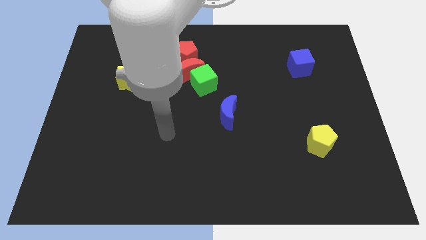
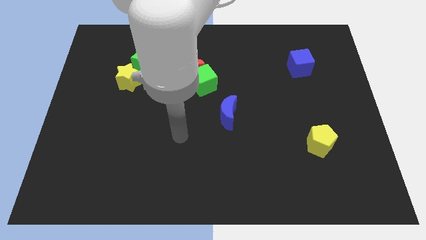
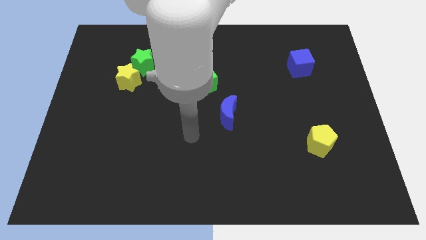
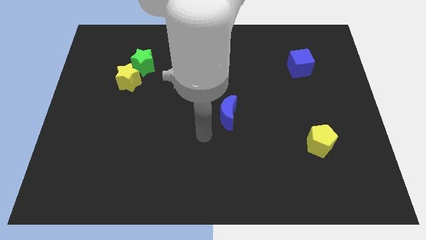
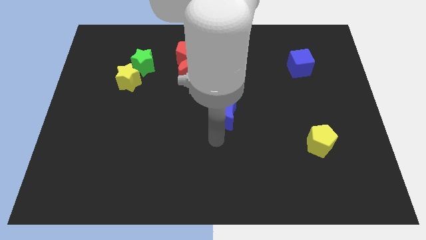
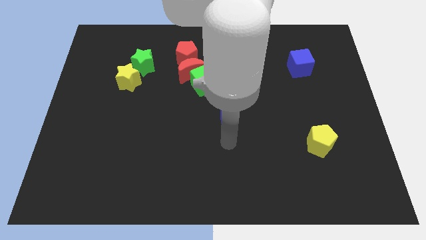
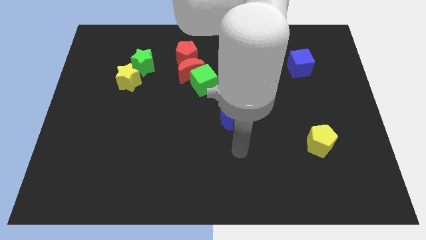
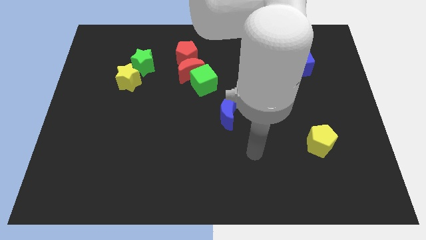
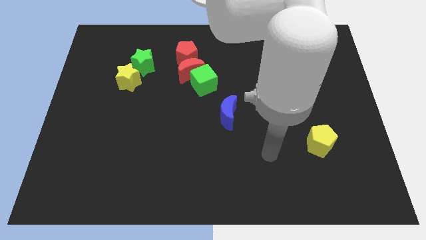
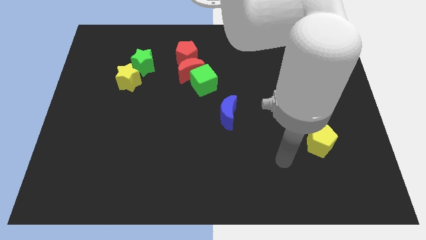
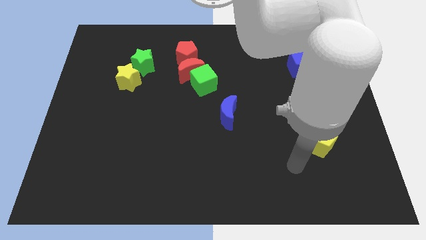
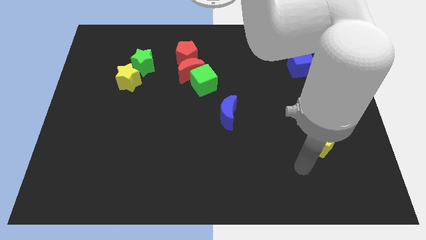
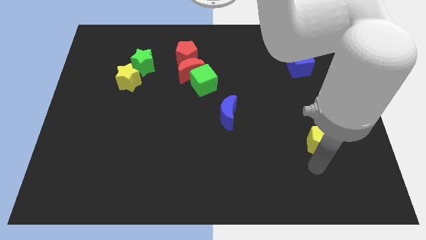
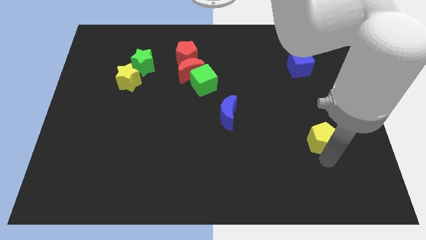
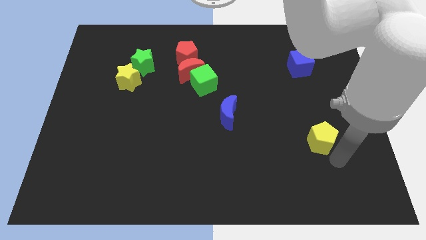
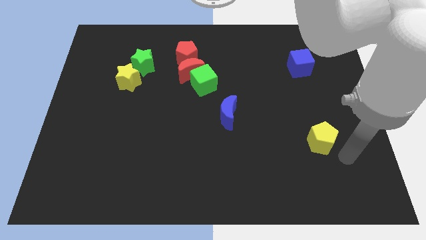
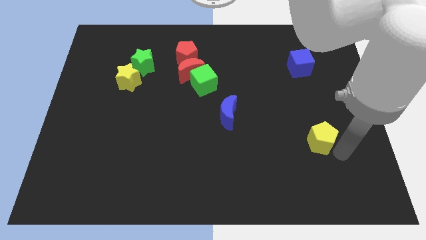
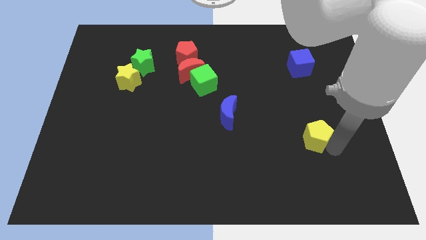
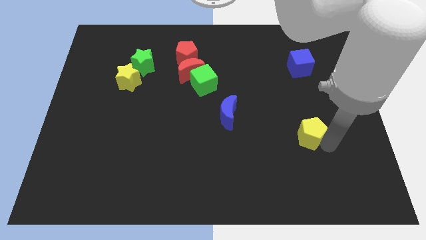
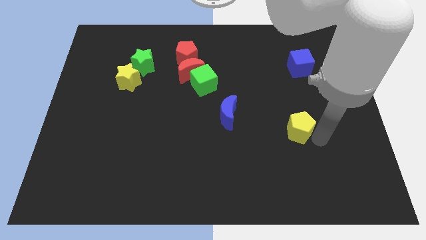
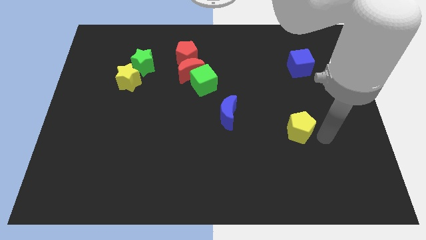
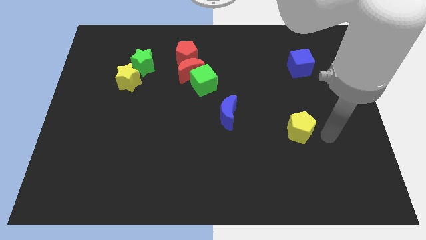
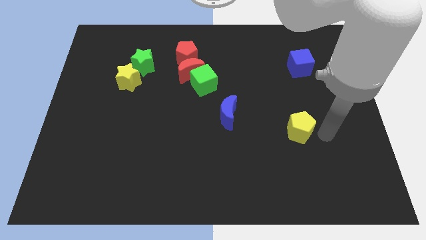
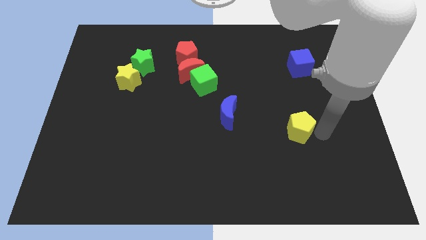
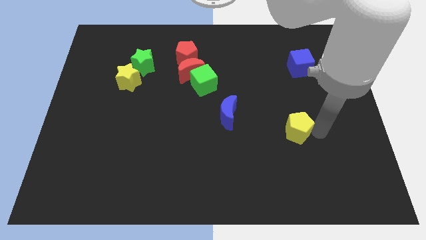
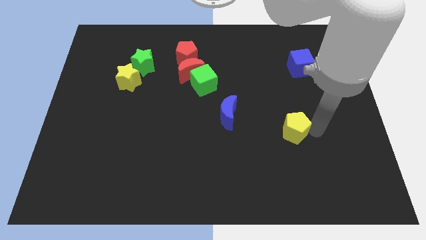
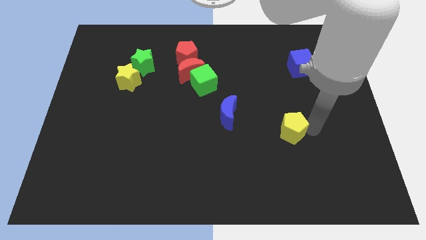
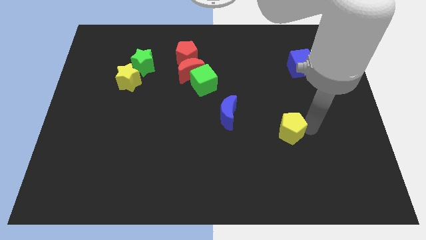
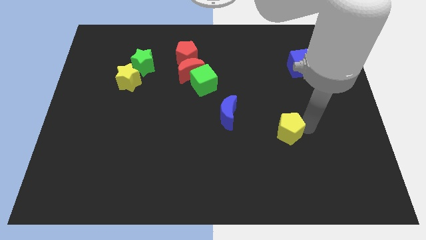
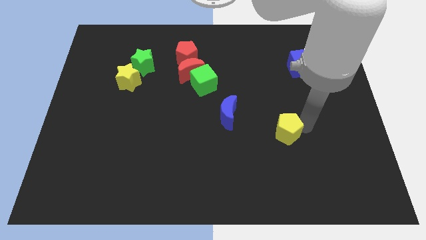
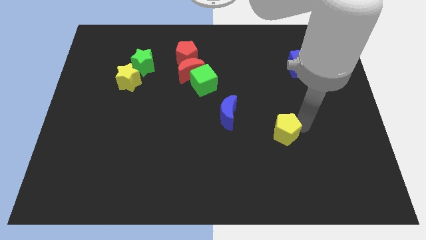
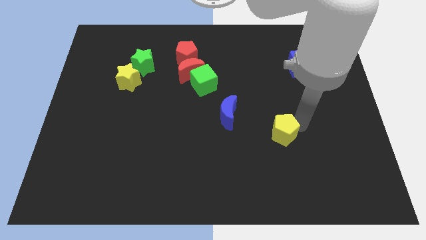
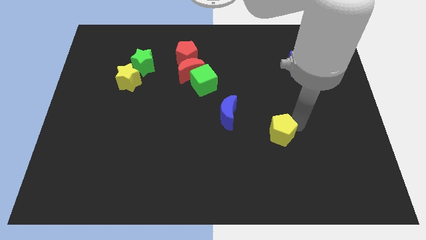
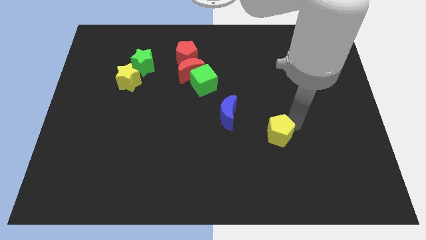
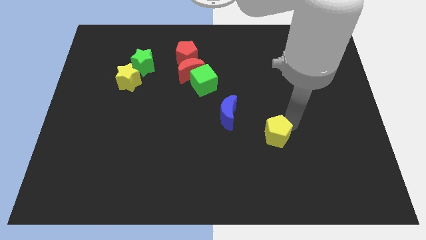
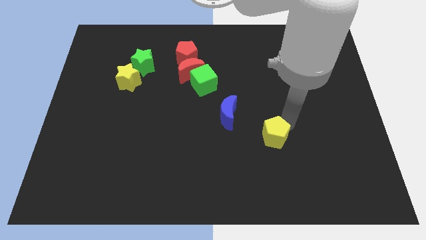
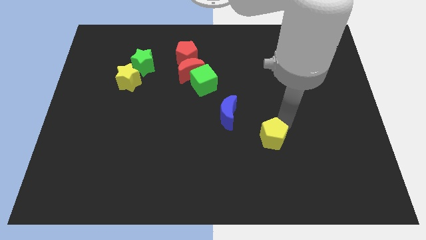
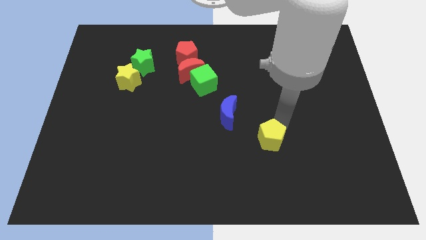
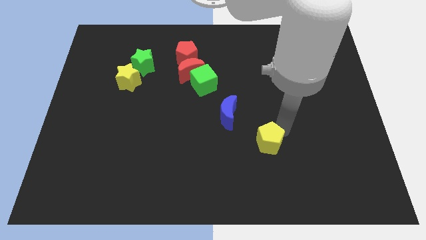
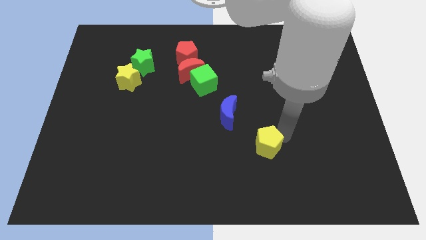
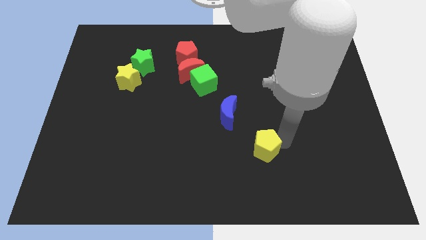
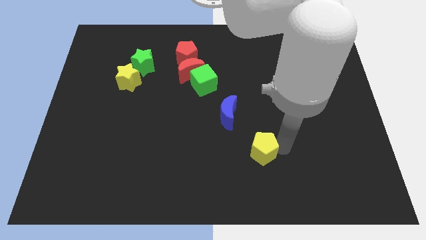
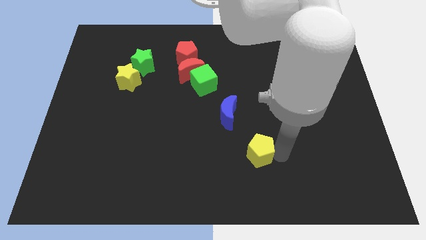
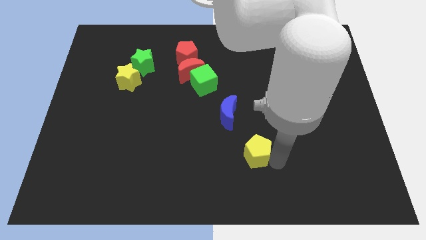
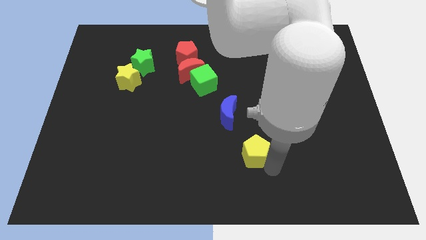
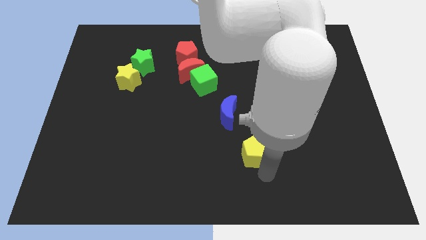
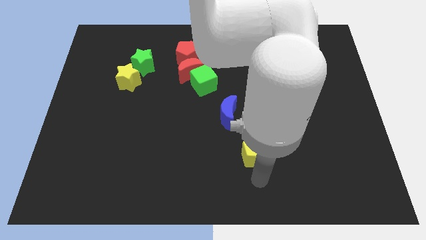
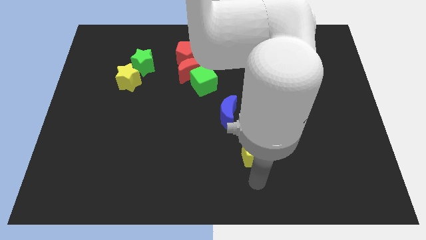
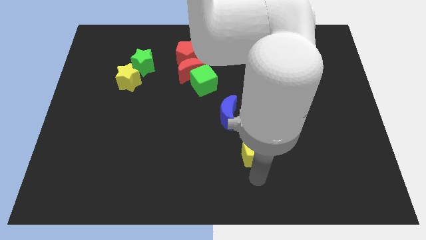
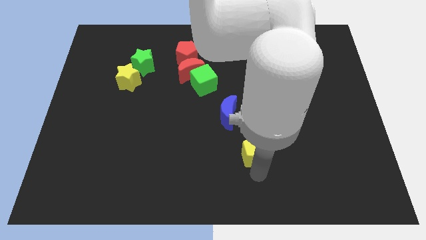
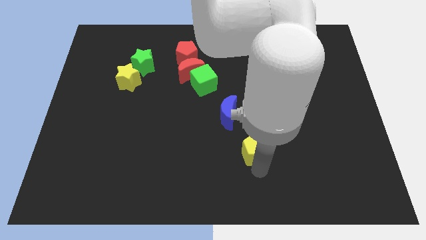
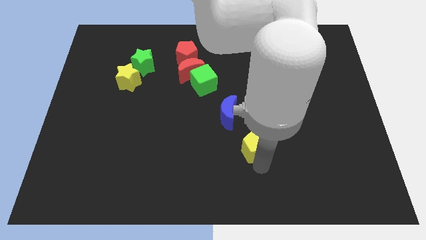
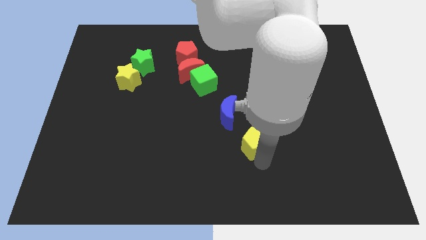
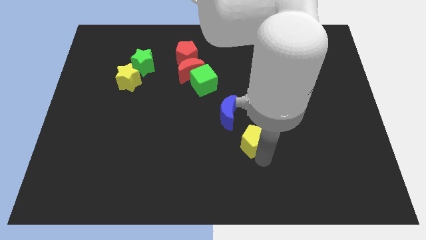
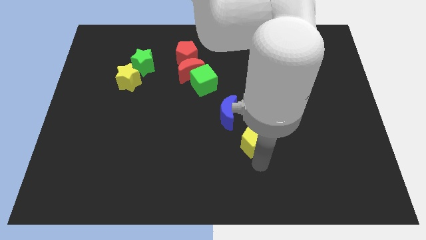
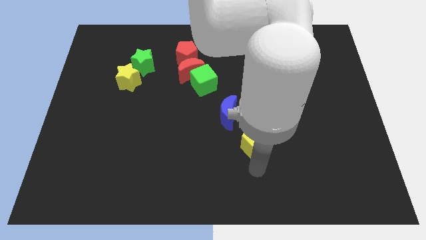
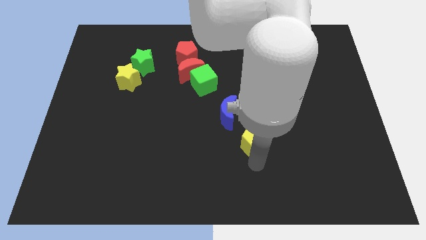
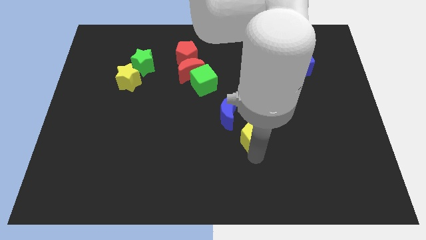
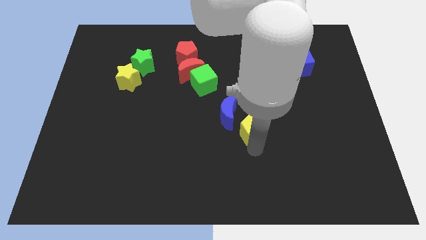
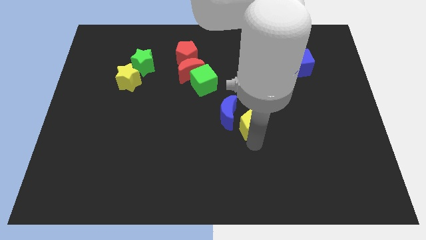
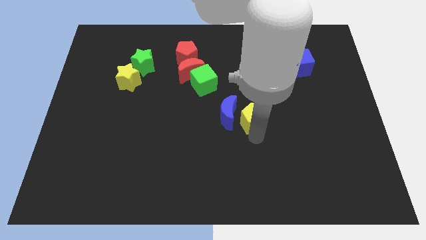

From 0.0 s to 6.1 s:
move the yellow pentagon next to the blue moon

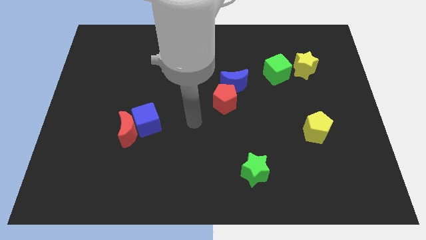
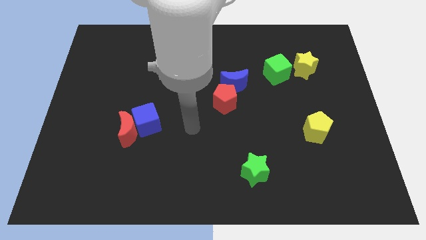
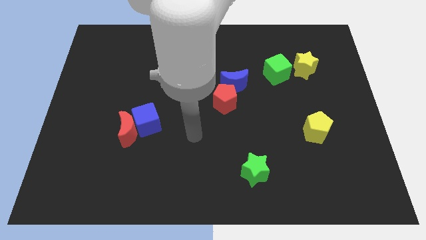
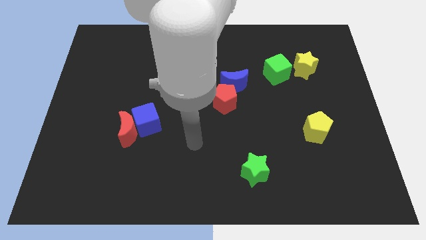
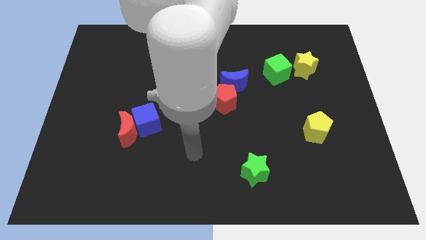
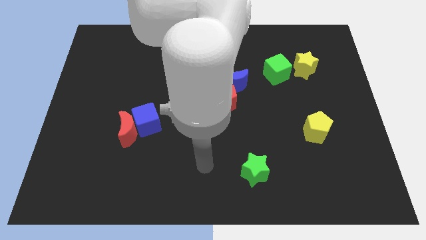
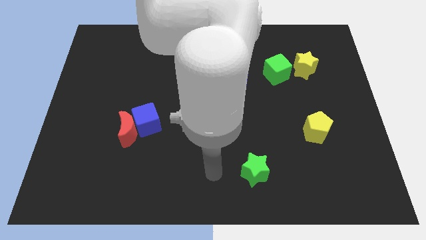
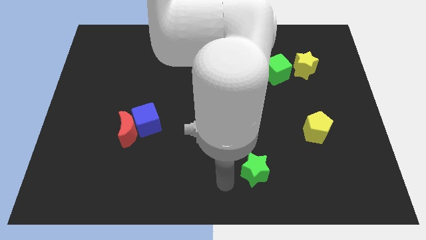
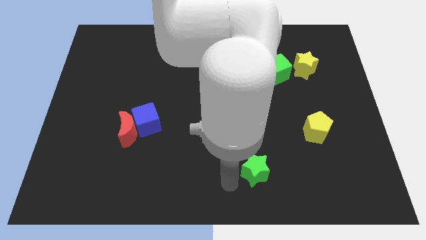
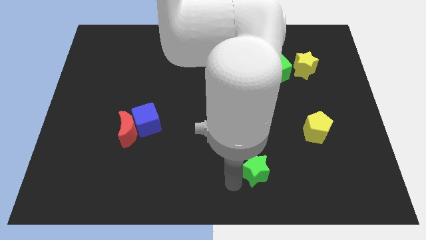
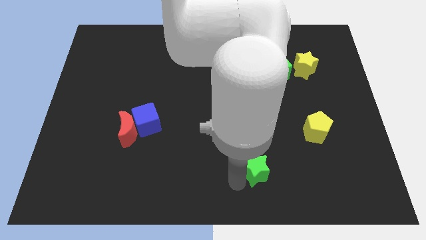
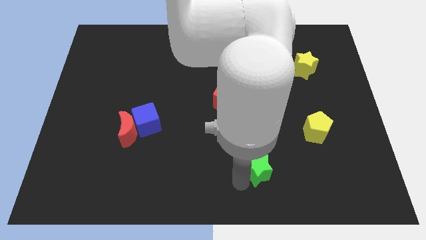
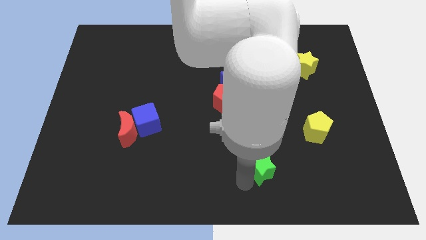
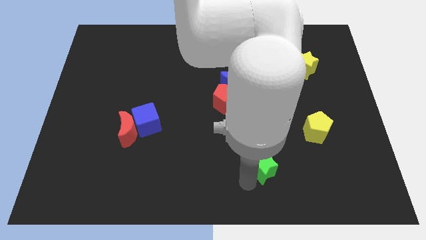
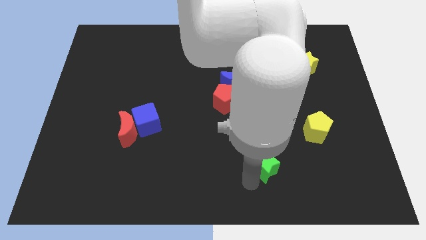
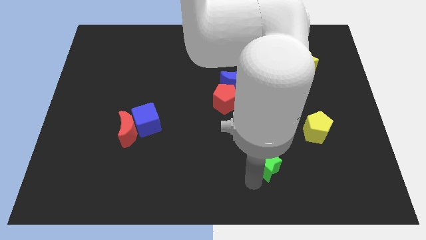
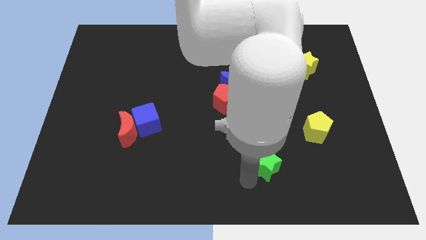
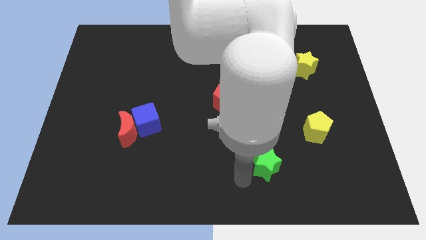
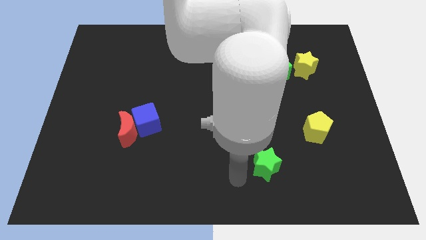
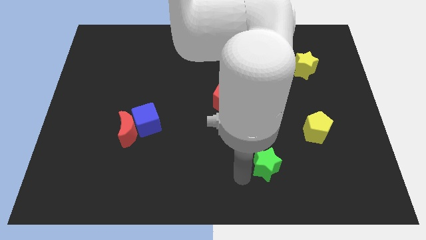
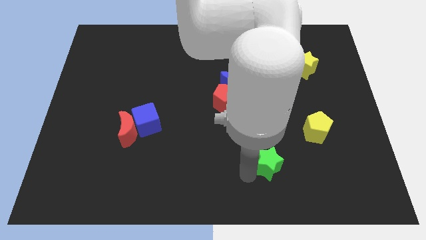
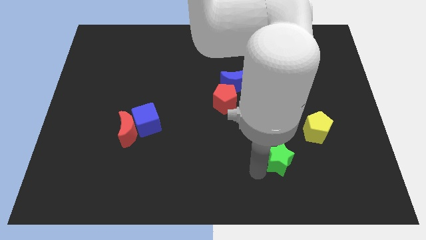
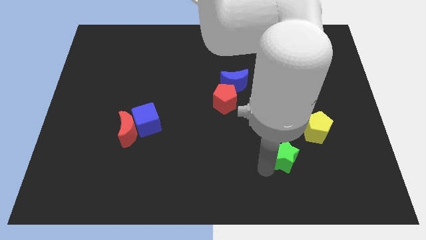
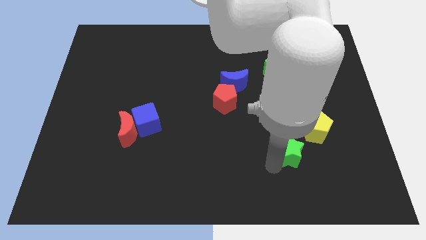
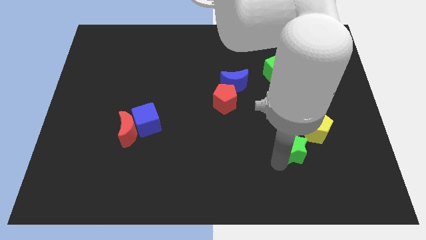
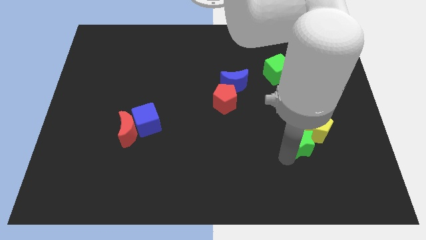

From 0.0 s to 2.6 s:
push the green star close to the yellow pentagon
